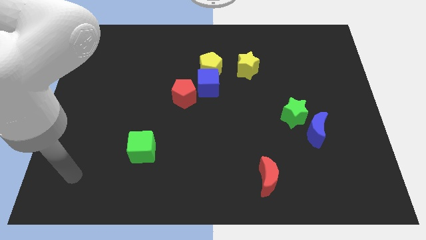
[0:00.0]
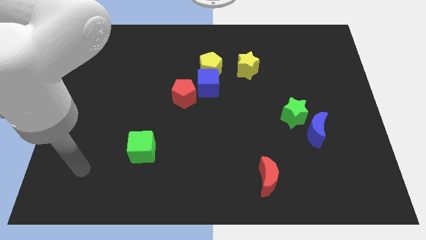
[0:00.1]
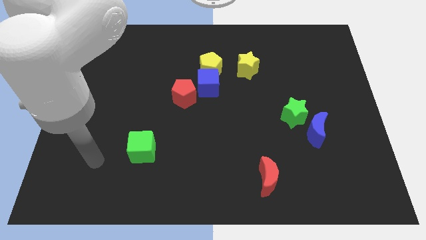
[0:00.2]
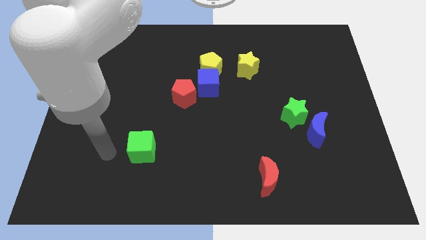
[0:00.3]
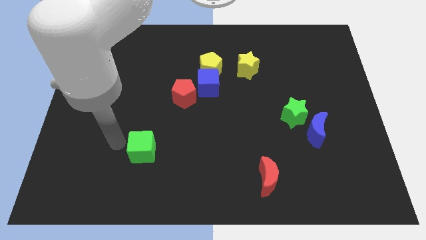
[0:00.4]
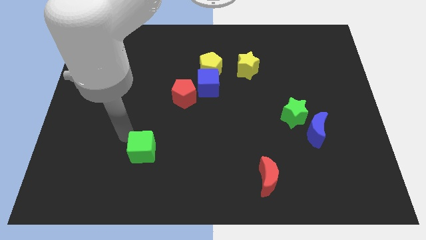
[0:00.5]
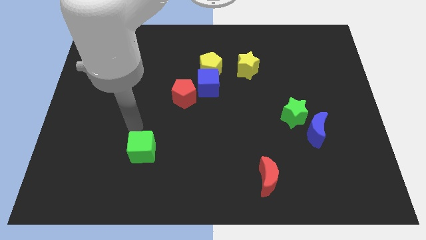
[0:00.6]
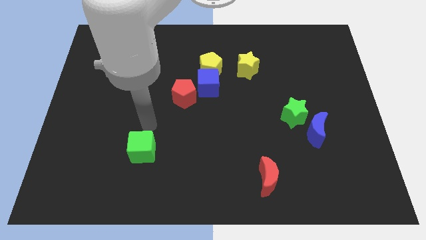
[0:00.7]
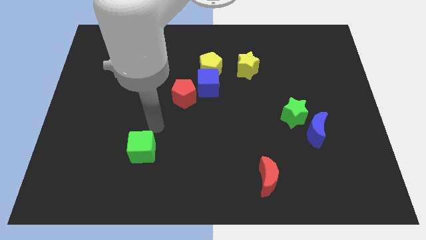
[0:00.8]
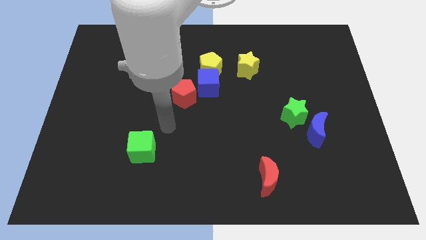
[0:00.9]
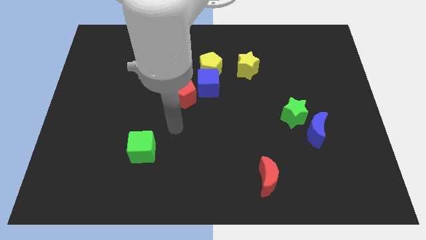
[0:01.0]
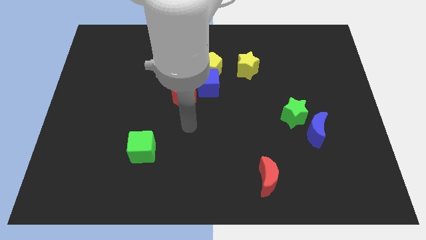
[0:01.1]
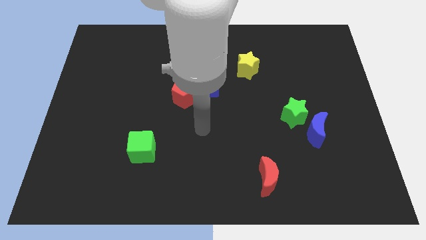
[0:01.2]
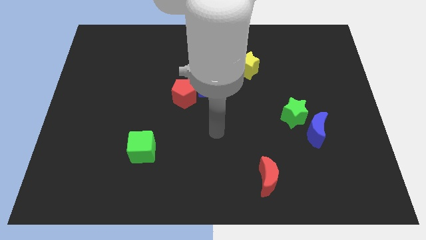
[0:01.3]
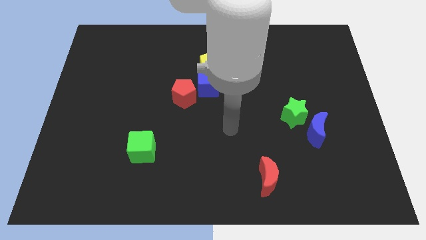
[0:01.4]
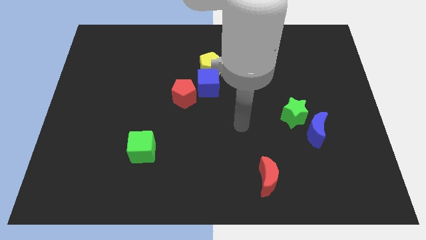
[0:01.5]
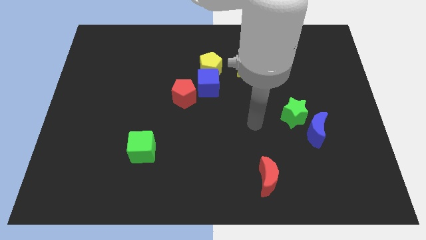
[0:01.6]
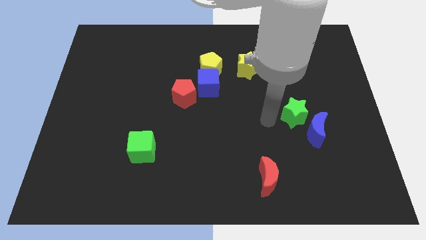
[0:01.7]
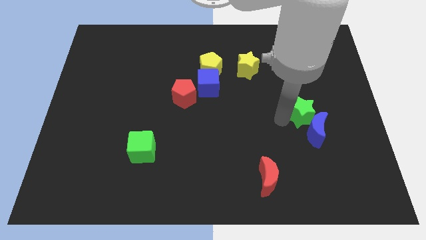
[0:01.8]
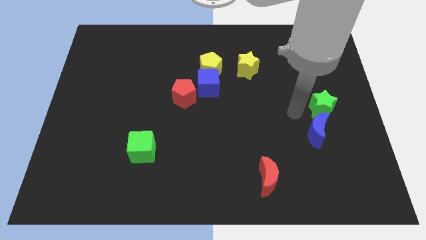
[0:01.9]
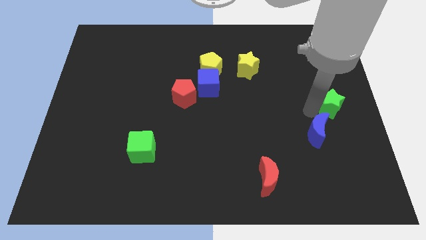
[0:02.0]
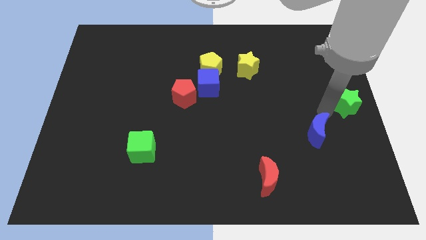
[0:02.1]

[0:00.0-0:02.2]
separate the blue moon from the green star

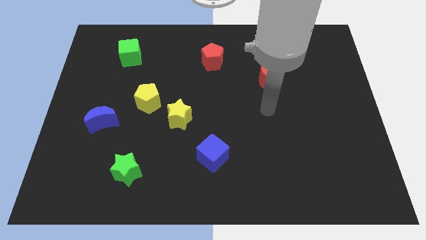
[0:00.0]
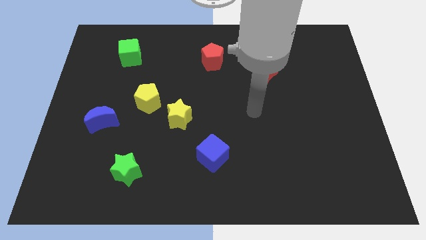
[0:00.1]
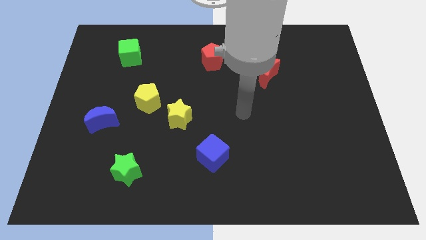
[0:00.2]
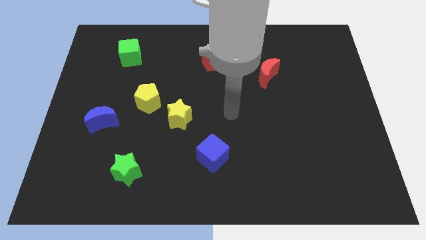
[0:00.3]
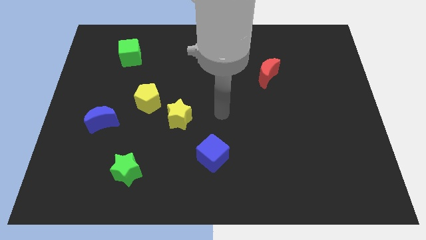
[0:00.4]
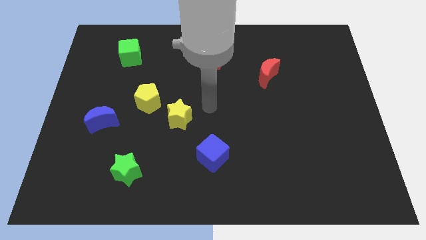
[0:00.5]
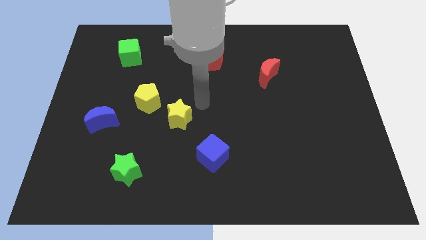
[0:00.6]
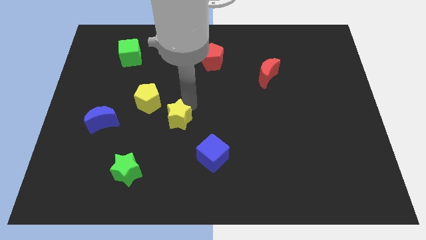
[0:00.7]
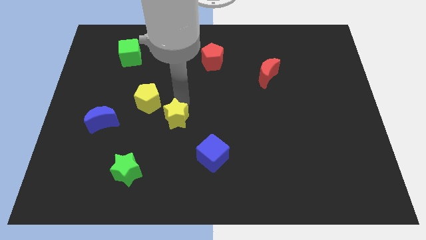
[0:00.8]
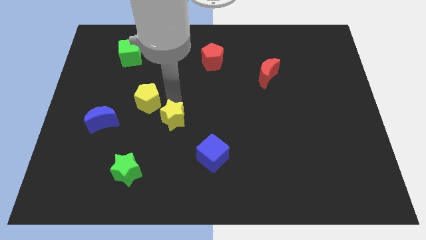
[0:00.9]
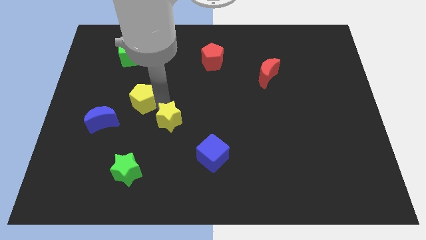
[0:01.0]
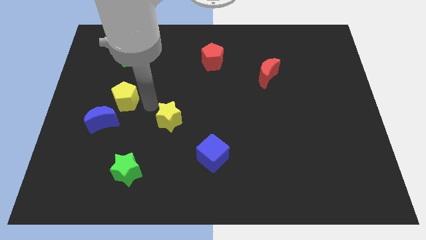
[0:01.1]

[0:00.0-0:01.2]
move the yellow star away from the yellow pentagon

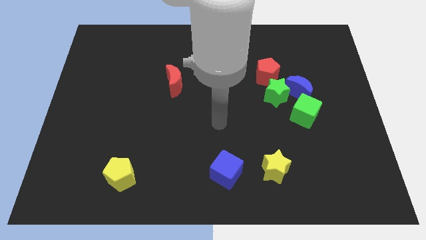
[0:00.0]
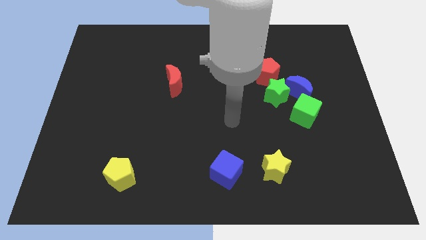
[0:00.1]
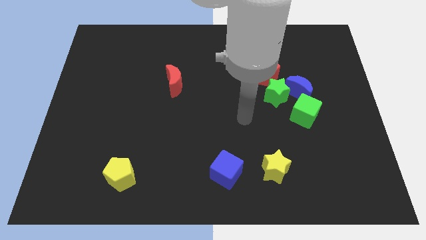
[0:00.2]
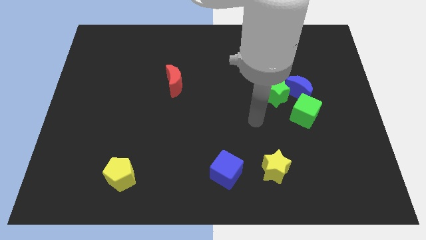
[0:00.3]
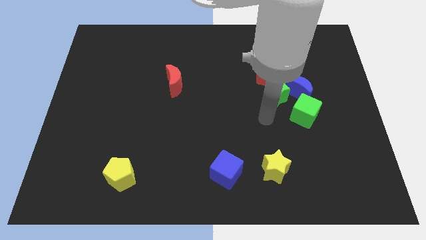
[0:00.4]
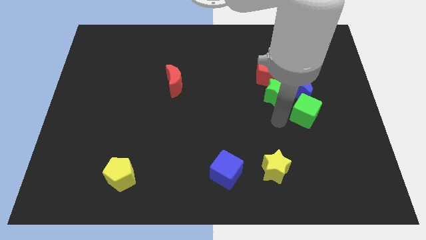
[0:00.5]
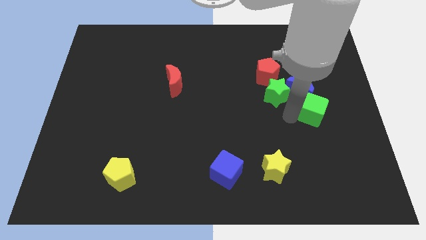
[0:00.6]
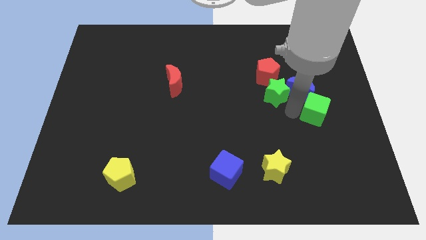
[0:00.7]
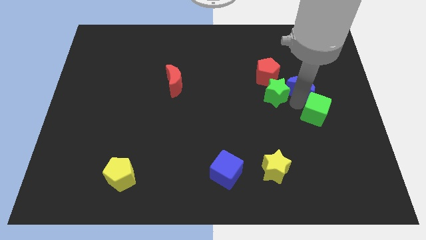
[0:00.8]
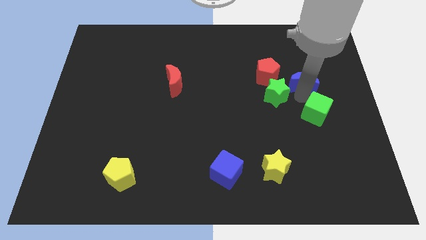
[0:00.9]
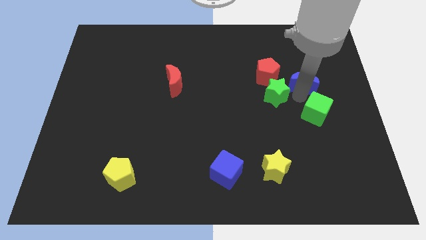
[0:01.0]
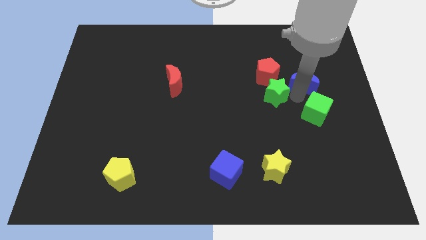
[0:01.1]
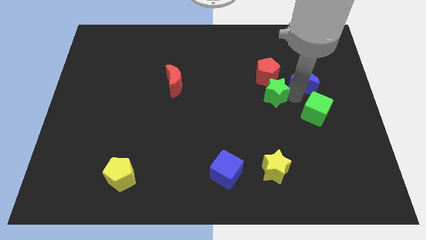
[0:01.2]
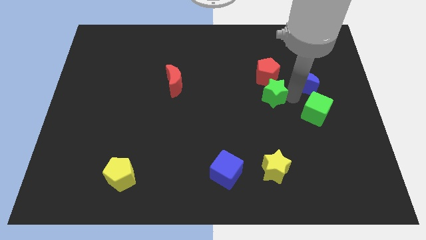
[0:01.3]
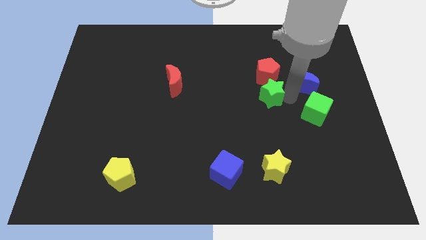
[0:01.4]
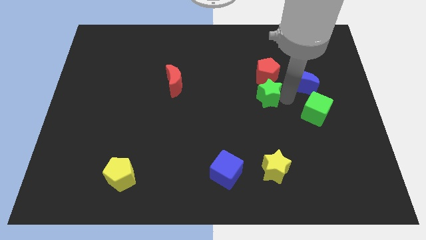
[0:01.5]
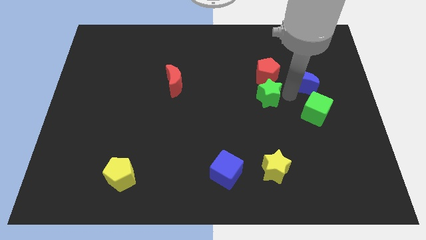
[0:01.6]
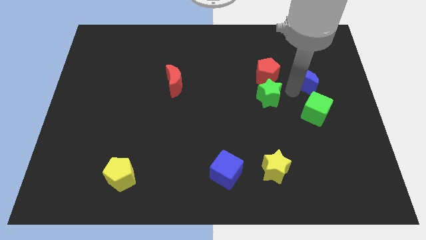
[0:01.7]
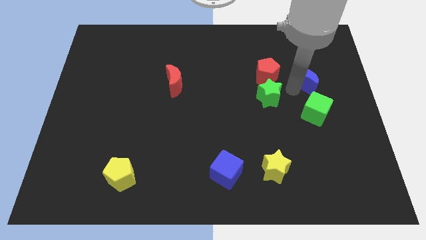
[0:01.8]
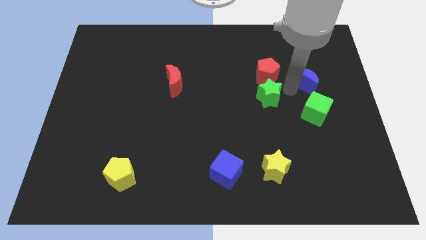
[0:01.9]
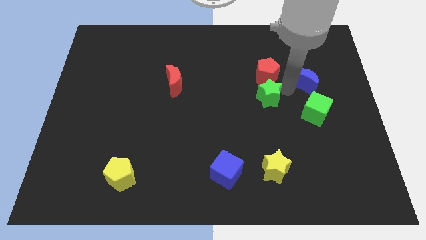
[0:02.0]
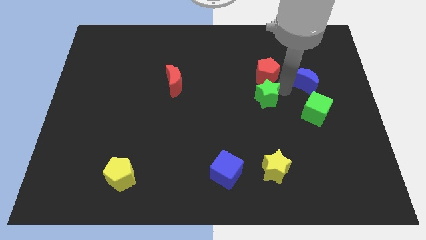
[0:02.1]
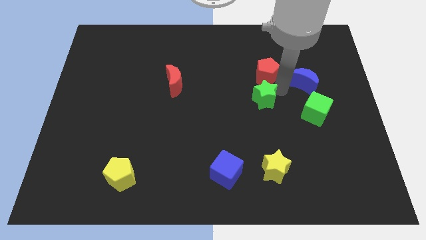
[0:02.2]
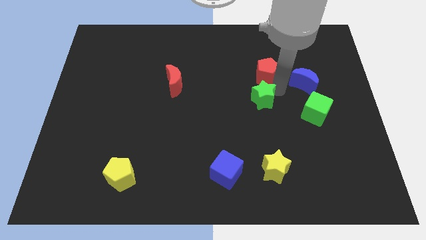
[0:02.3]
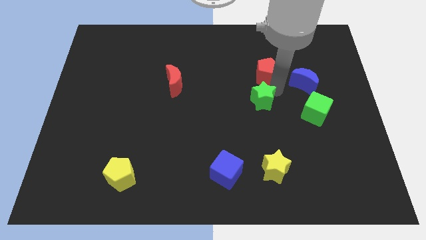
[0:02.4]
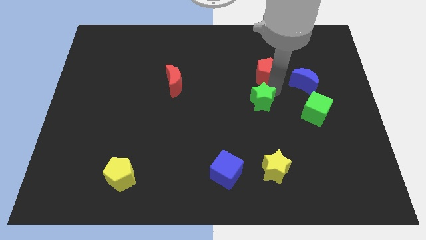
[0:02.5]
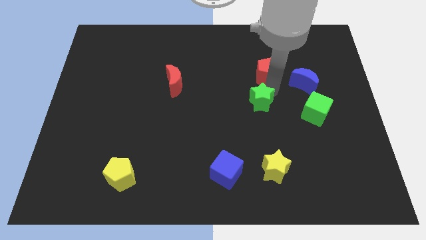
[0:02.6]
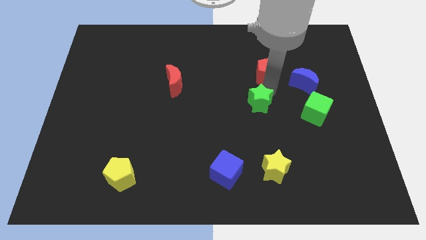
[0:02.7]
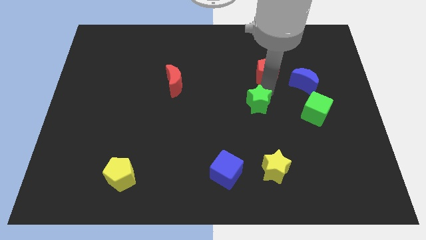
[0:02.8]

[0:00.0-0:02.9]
move the green star away from the blue moon, red pentagon, and green cube

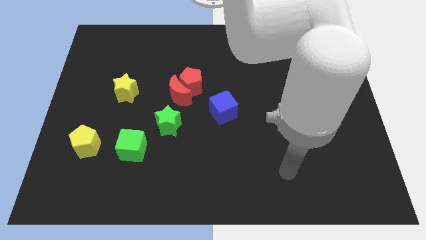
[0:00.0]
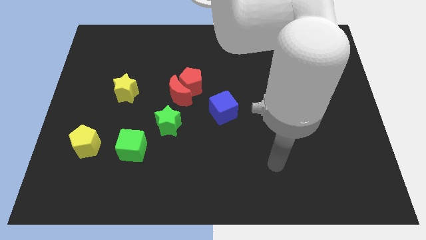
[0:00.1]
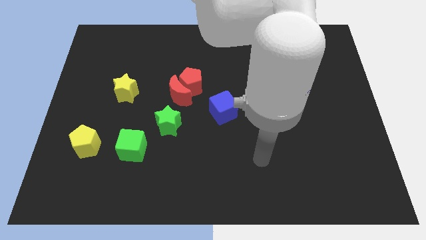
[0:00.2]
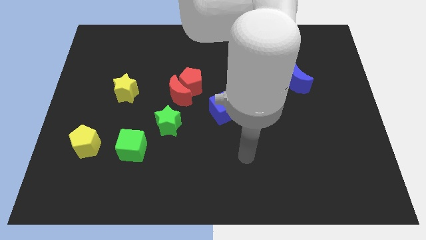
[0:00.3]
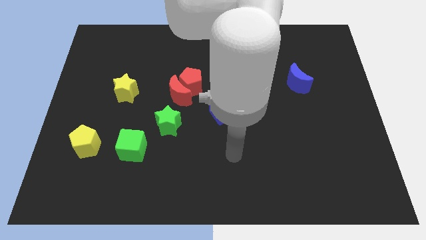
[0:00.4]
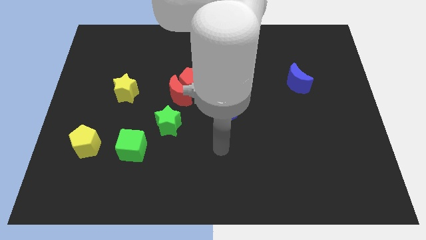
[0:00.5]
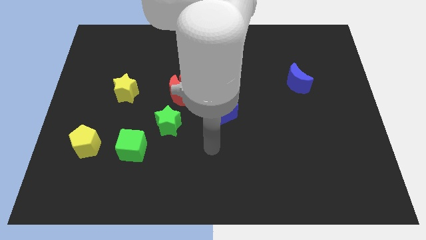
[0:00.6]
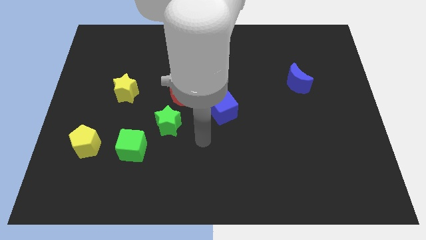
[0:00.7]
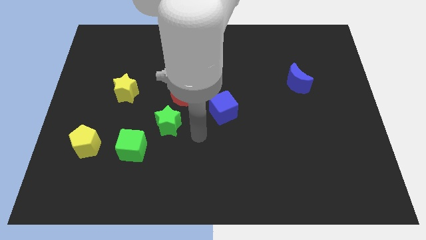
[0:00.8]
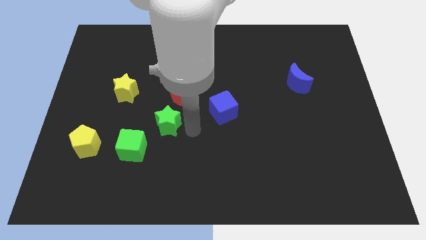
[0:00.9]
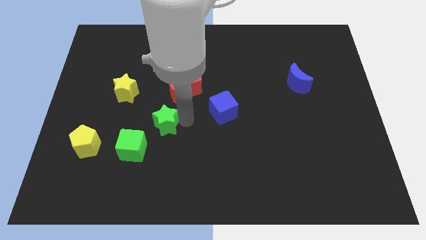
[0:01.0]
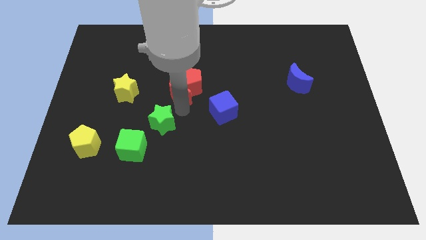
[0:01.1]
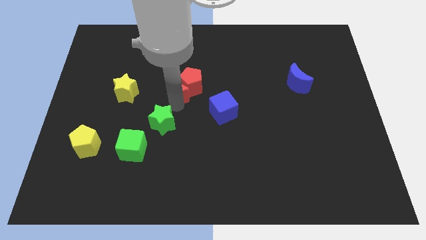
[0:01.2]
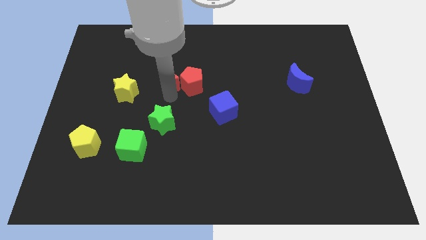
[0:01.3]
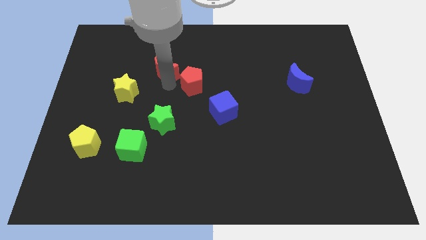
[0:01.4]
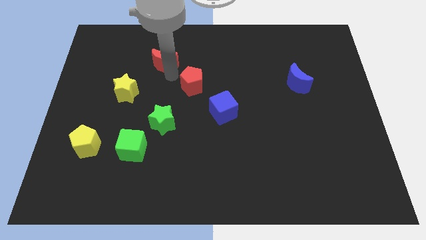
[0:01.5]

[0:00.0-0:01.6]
move the red pentagon away from the red moon

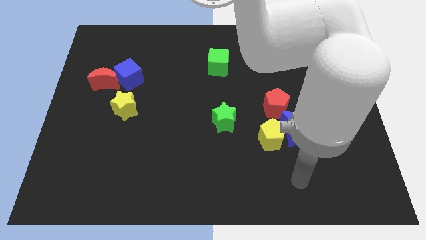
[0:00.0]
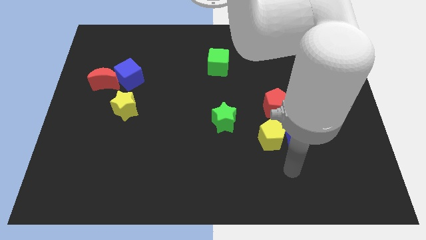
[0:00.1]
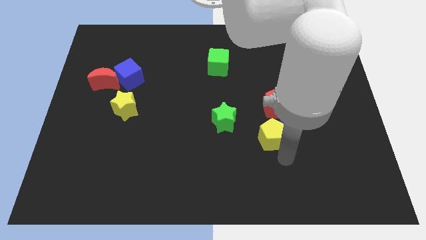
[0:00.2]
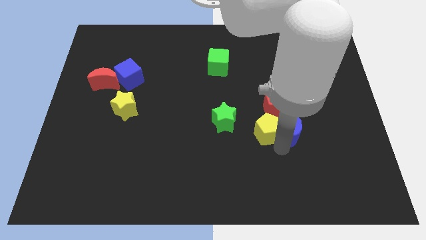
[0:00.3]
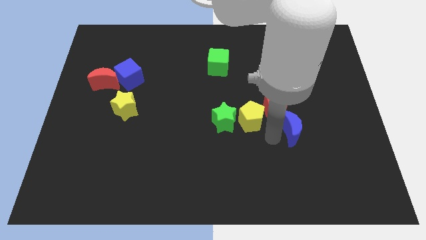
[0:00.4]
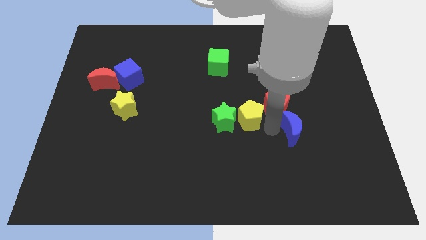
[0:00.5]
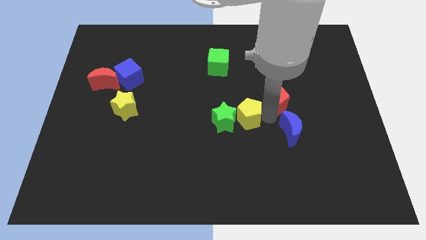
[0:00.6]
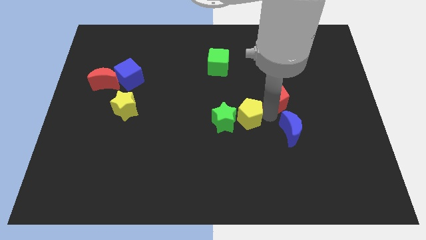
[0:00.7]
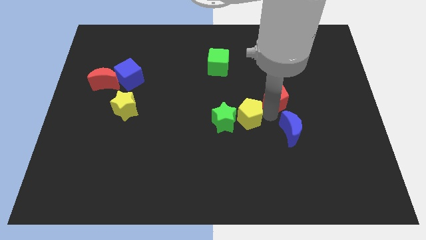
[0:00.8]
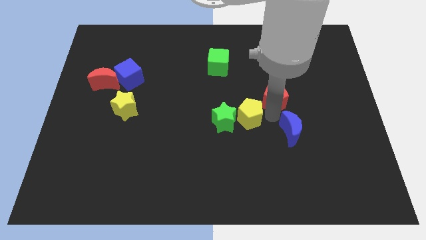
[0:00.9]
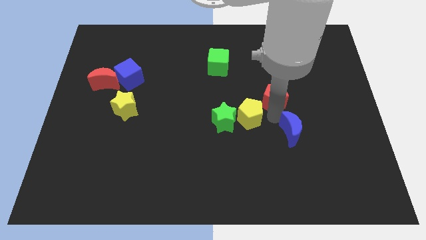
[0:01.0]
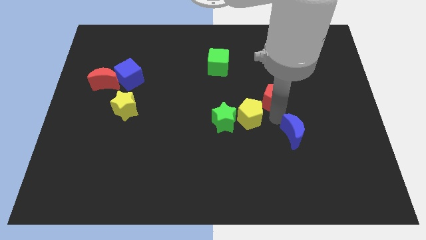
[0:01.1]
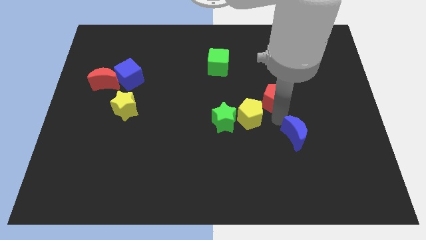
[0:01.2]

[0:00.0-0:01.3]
separate the blue moon from the yellow pentagon and red pentagon
